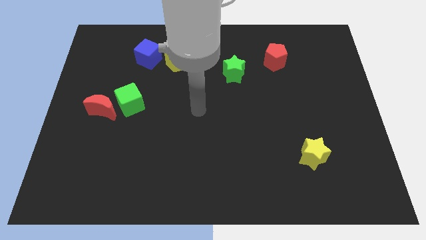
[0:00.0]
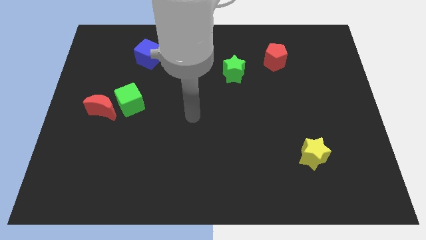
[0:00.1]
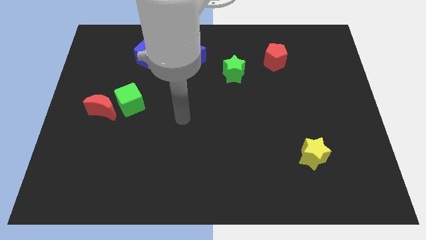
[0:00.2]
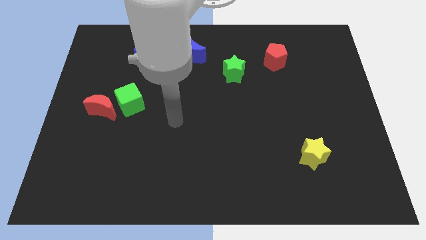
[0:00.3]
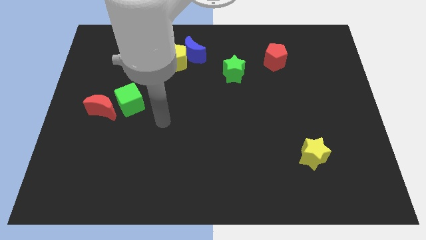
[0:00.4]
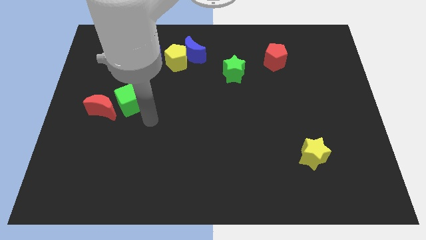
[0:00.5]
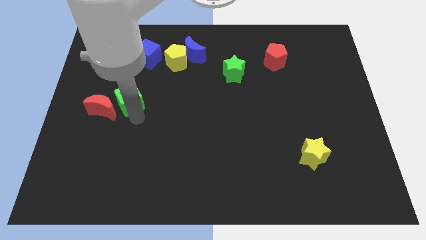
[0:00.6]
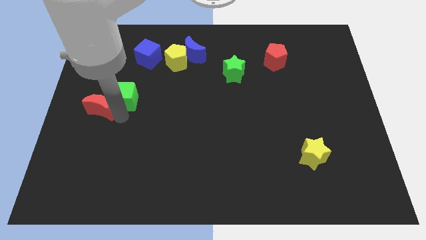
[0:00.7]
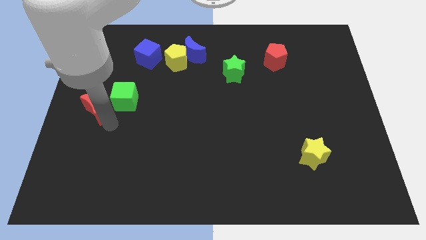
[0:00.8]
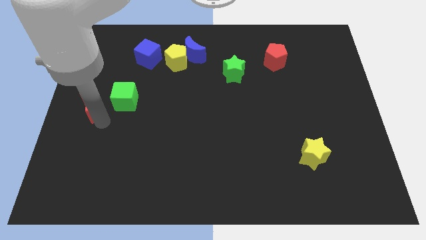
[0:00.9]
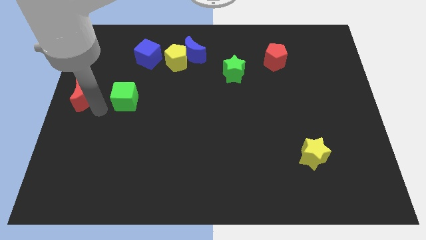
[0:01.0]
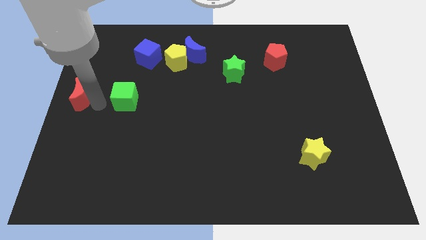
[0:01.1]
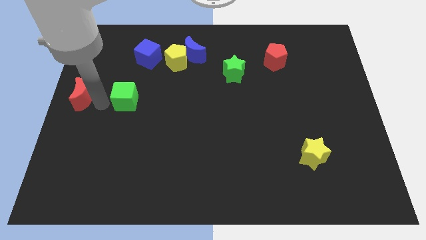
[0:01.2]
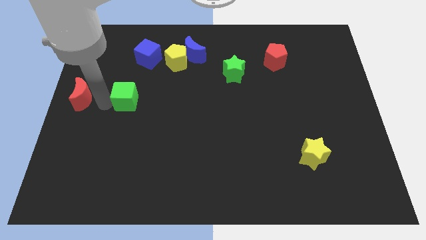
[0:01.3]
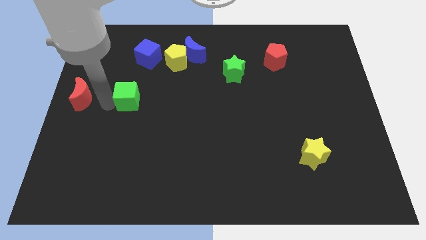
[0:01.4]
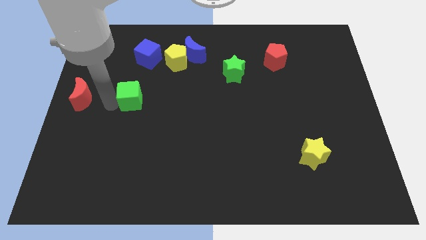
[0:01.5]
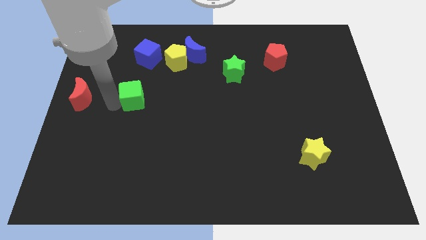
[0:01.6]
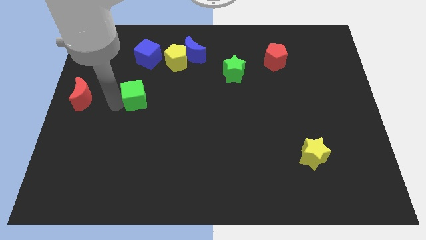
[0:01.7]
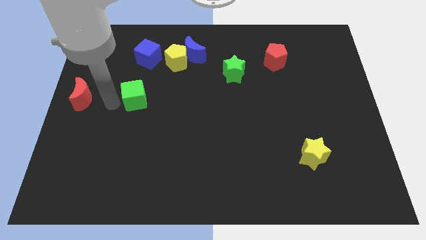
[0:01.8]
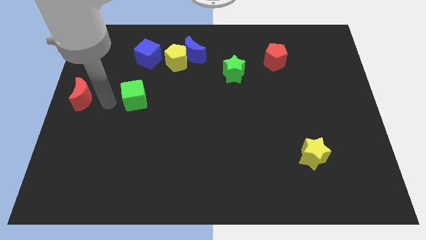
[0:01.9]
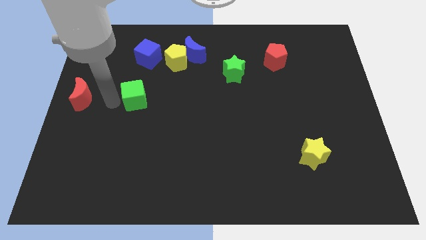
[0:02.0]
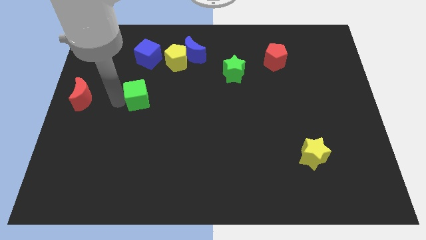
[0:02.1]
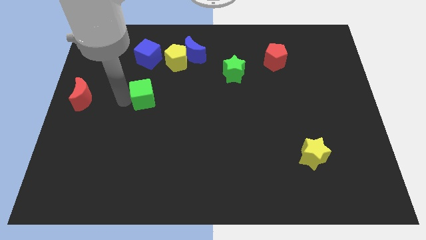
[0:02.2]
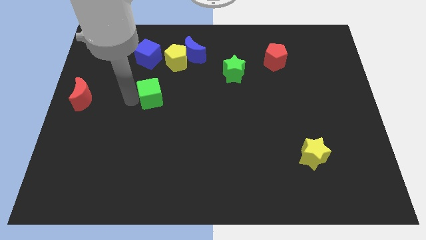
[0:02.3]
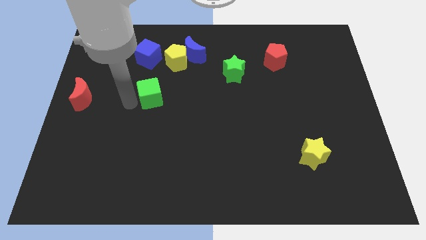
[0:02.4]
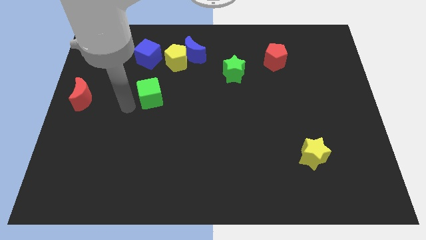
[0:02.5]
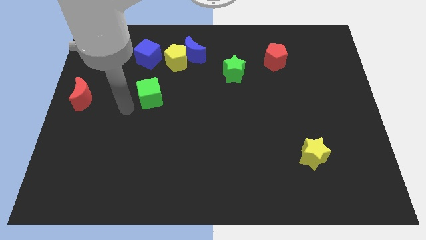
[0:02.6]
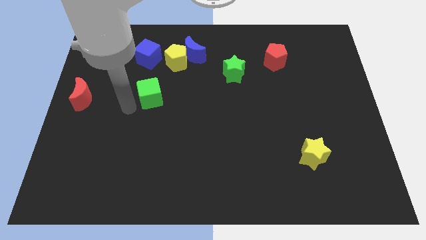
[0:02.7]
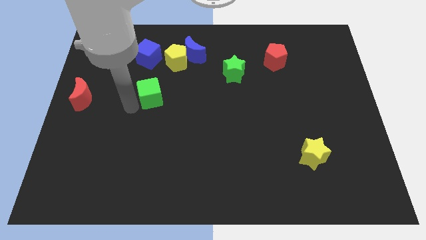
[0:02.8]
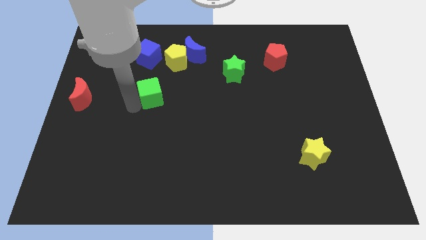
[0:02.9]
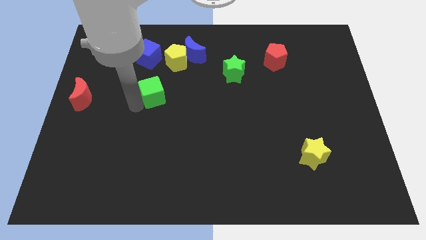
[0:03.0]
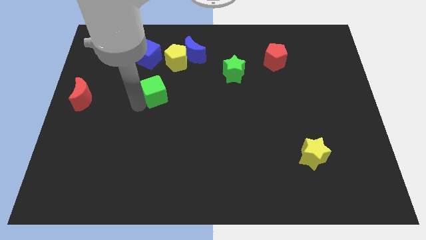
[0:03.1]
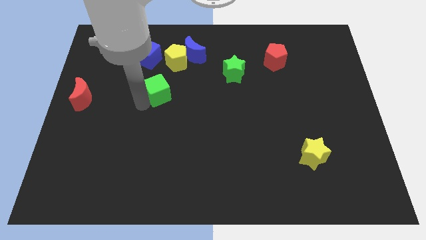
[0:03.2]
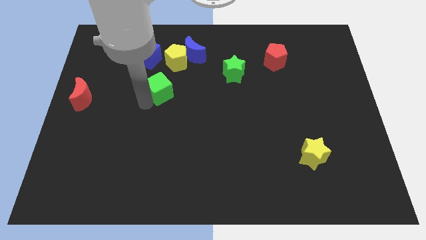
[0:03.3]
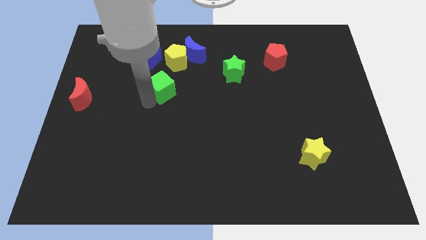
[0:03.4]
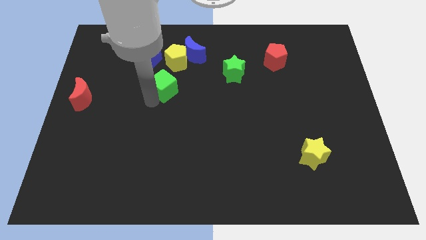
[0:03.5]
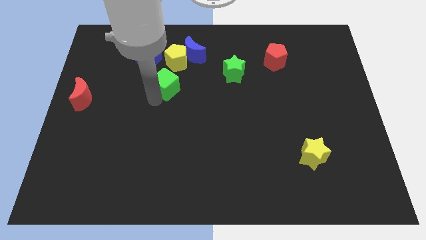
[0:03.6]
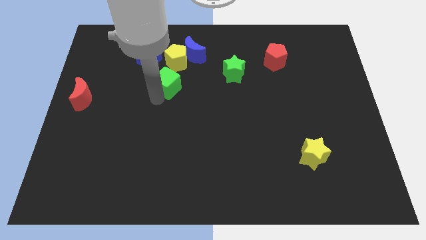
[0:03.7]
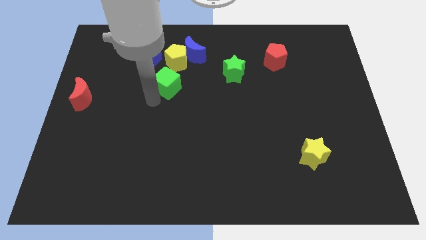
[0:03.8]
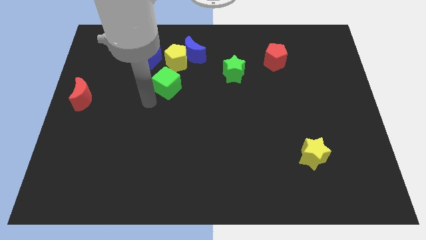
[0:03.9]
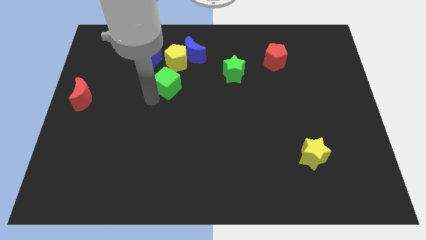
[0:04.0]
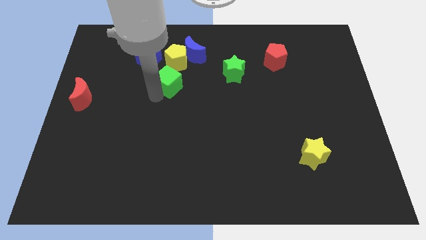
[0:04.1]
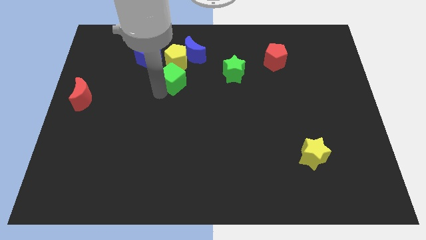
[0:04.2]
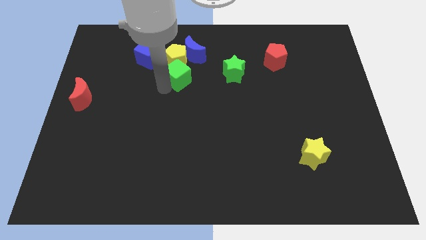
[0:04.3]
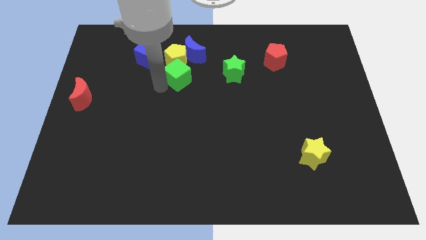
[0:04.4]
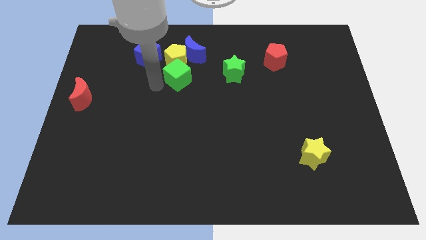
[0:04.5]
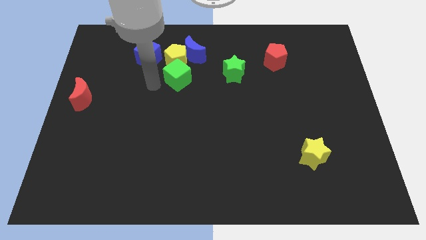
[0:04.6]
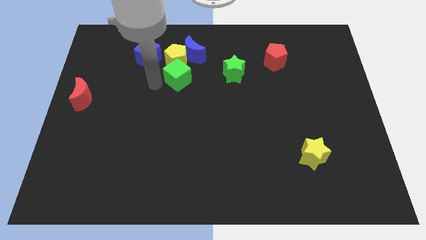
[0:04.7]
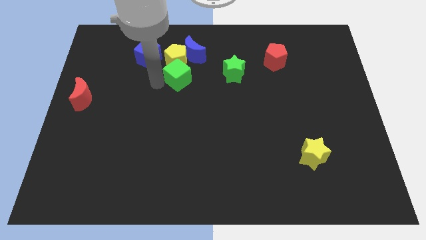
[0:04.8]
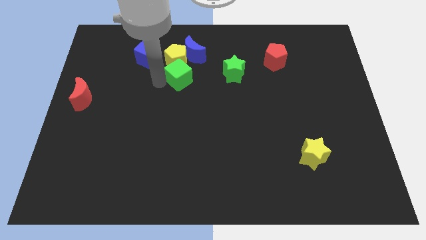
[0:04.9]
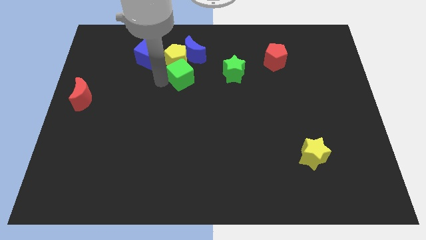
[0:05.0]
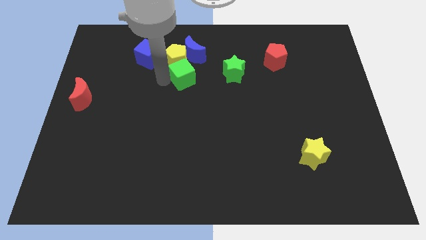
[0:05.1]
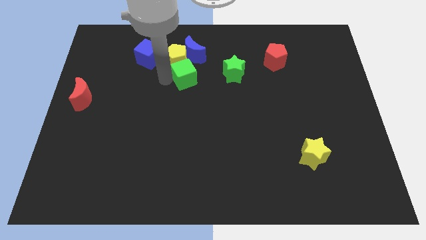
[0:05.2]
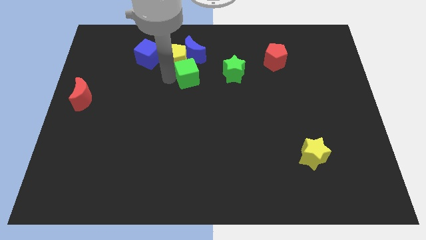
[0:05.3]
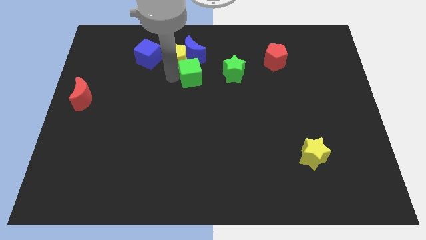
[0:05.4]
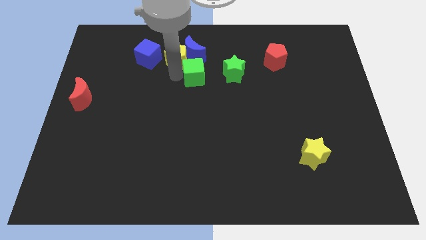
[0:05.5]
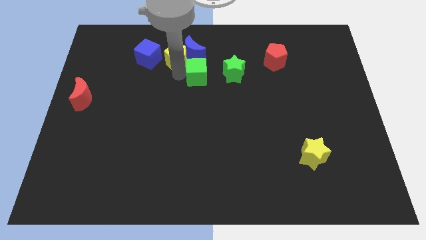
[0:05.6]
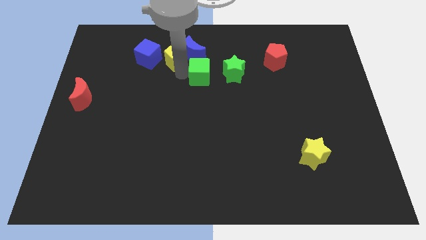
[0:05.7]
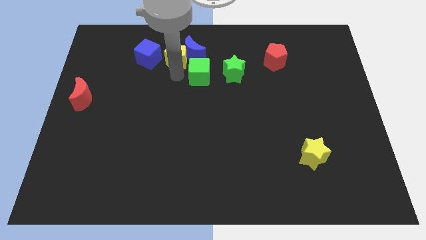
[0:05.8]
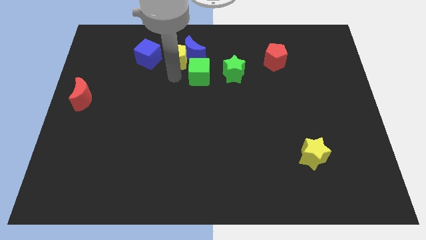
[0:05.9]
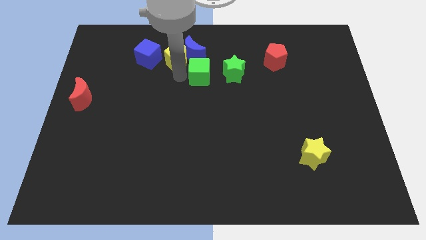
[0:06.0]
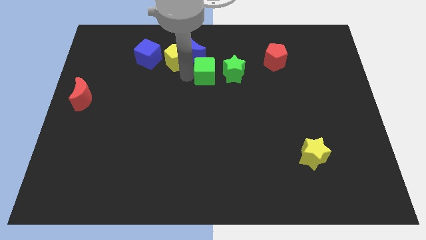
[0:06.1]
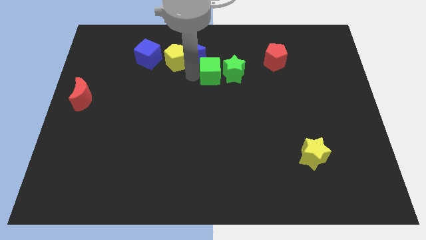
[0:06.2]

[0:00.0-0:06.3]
push the green cube close to the green star
